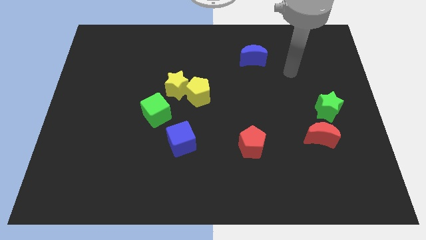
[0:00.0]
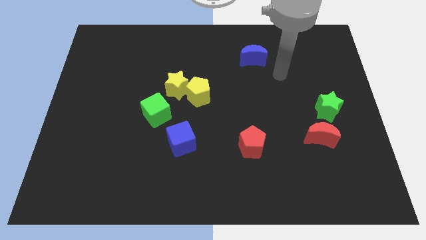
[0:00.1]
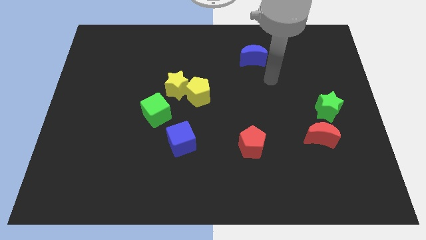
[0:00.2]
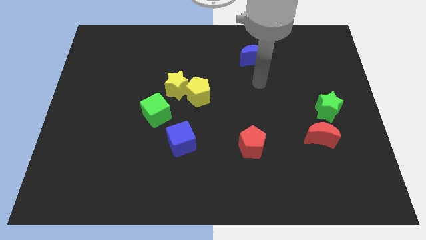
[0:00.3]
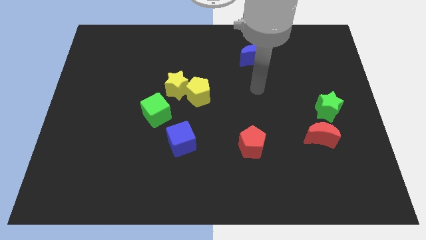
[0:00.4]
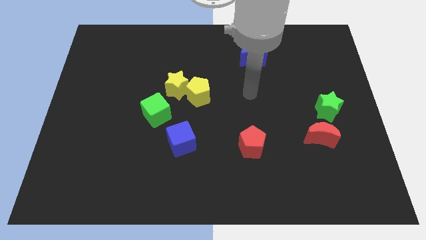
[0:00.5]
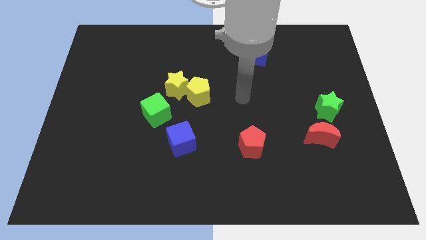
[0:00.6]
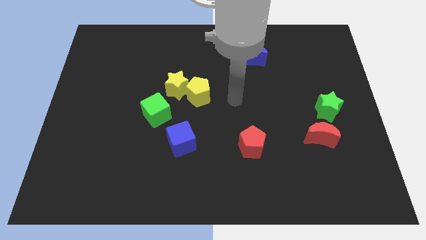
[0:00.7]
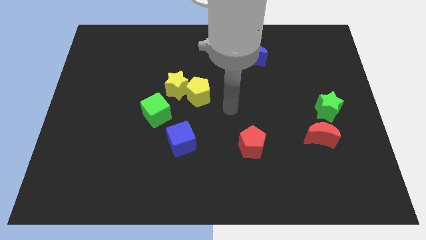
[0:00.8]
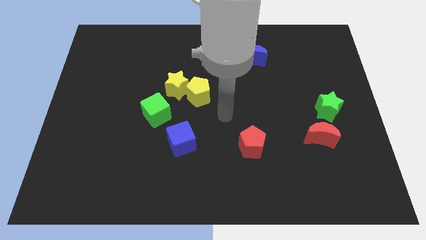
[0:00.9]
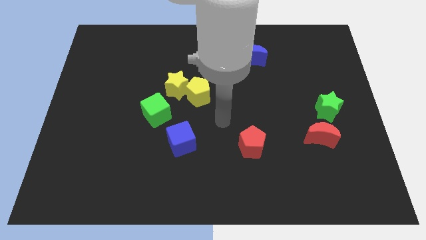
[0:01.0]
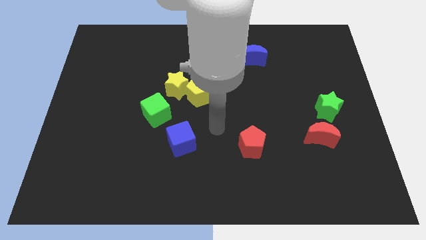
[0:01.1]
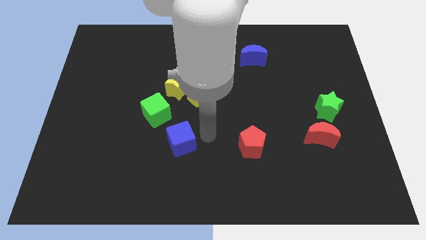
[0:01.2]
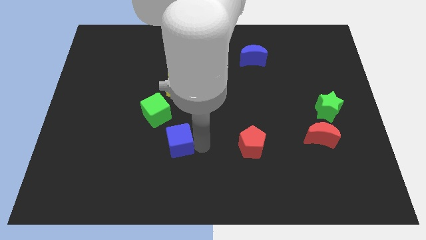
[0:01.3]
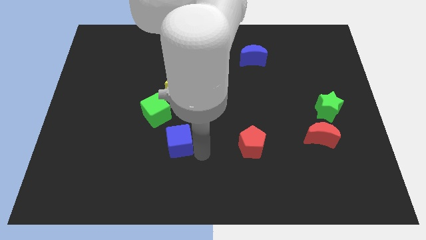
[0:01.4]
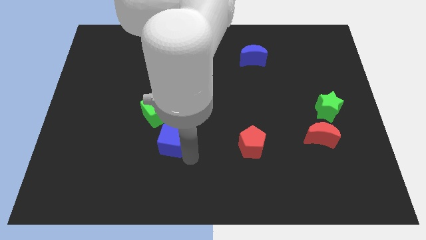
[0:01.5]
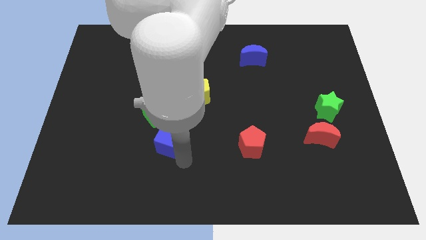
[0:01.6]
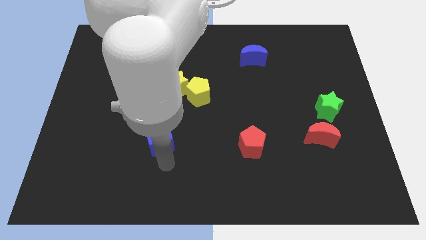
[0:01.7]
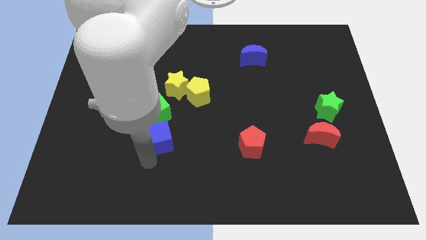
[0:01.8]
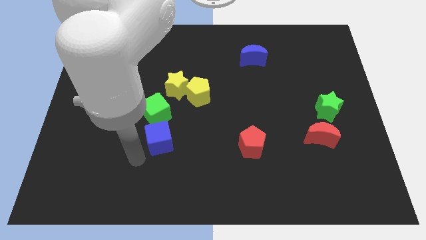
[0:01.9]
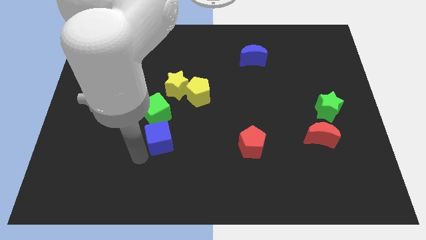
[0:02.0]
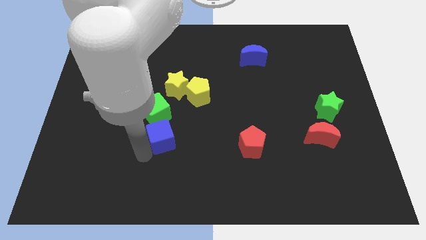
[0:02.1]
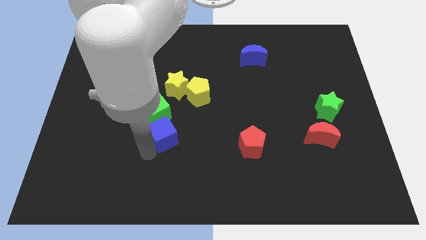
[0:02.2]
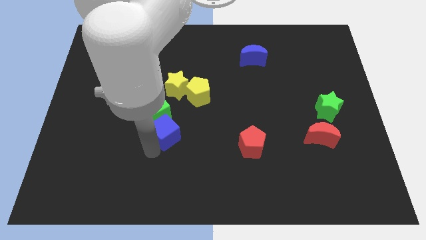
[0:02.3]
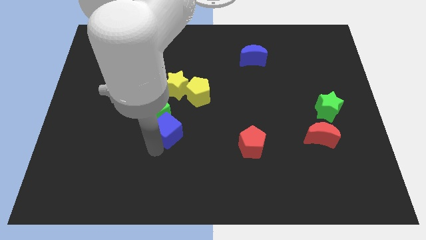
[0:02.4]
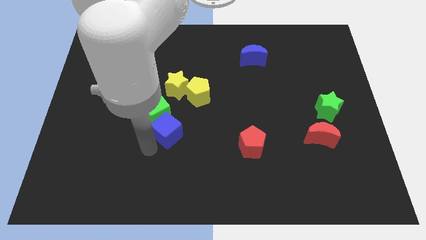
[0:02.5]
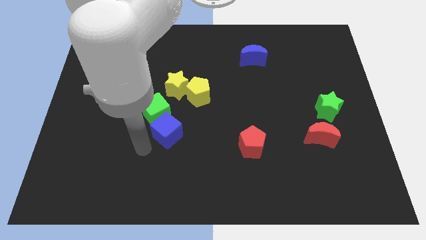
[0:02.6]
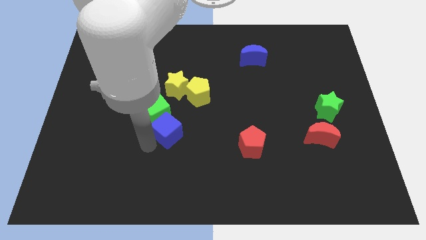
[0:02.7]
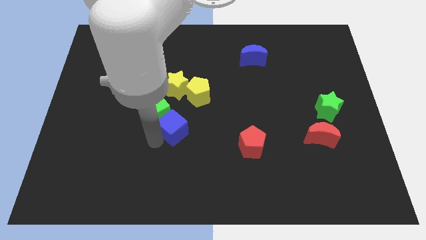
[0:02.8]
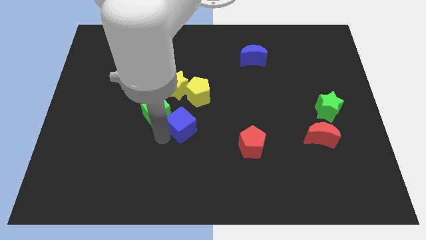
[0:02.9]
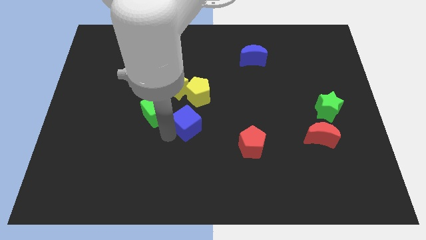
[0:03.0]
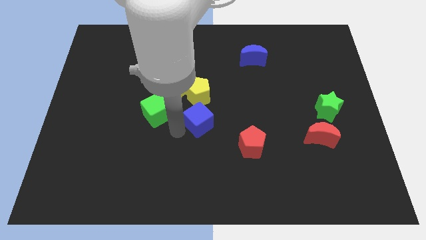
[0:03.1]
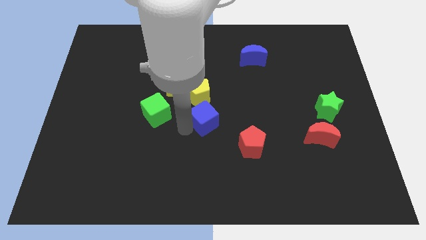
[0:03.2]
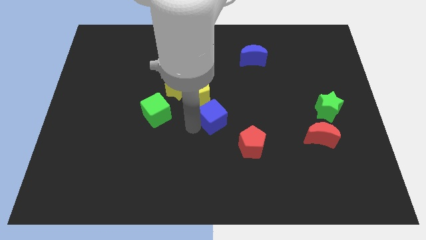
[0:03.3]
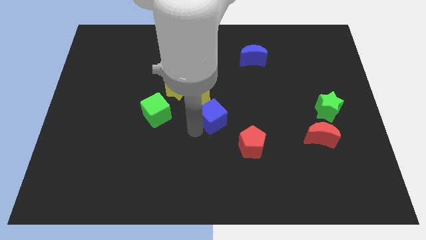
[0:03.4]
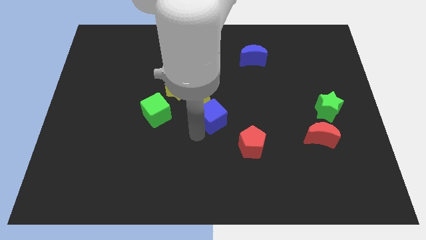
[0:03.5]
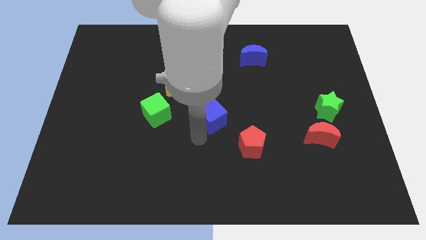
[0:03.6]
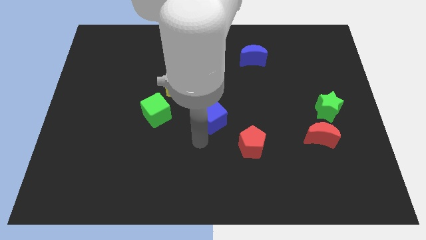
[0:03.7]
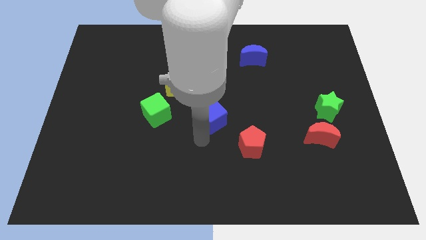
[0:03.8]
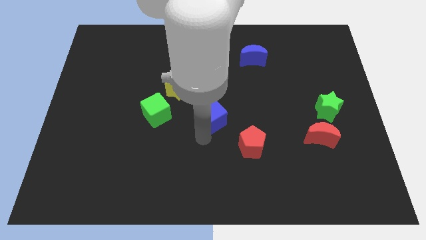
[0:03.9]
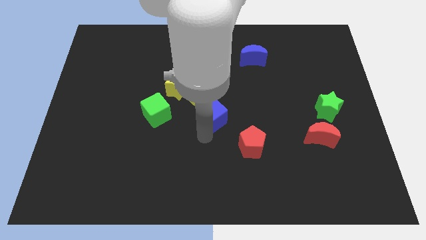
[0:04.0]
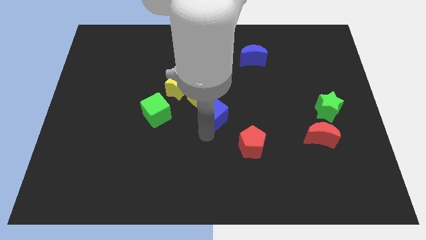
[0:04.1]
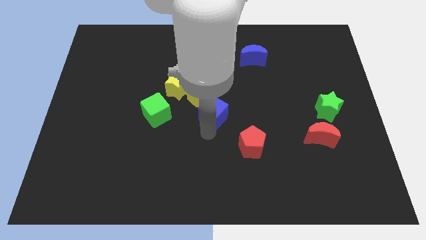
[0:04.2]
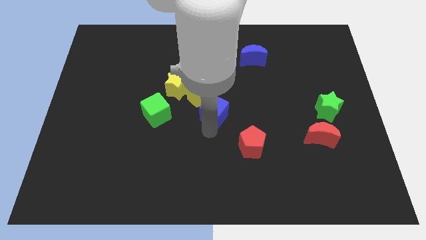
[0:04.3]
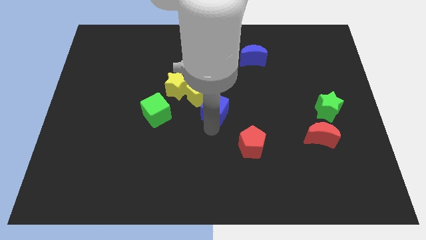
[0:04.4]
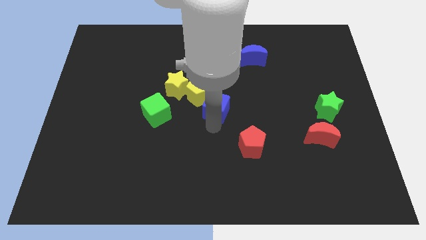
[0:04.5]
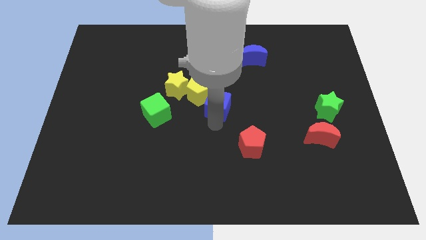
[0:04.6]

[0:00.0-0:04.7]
move the blue cube up a little

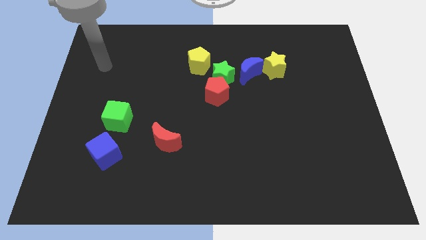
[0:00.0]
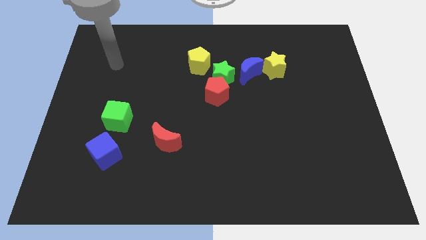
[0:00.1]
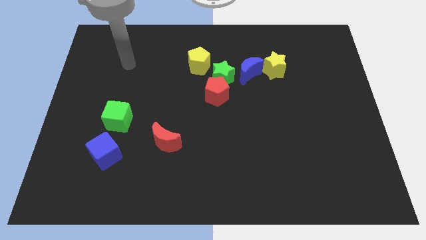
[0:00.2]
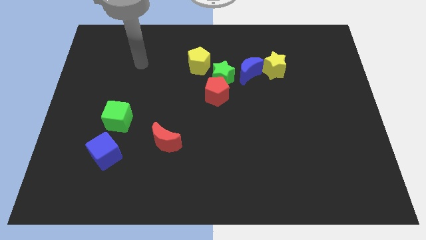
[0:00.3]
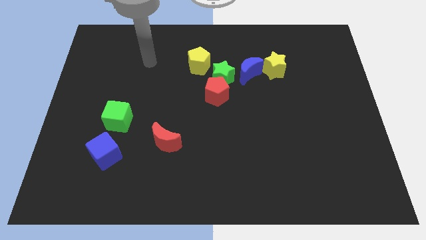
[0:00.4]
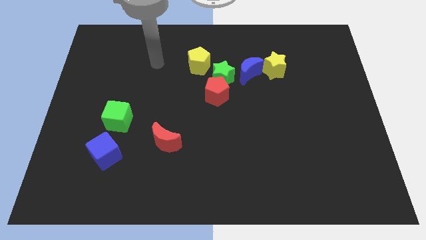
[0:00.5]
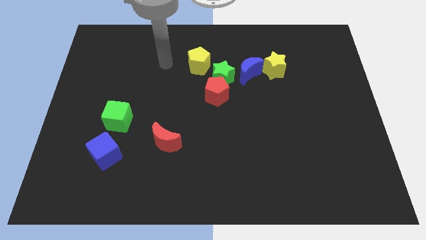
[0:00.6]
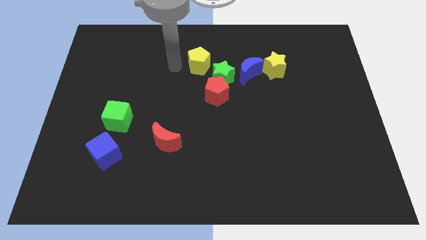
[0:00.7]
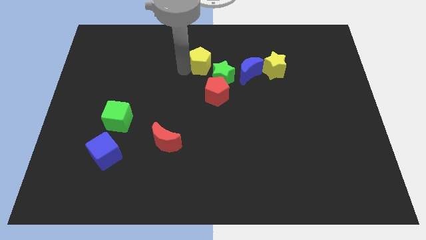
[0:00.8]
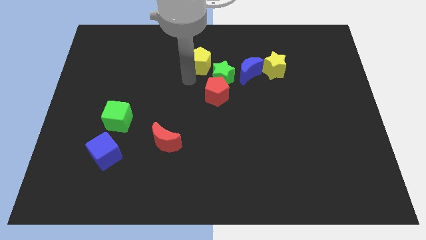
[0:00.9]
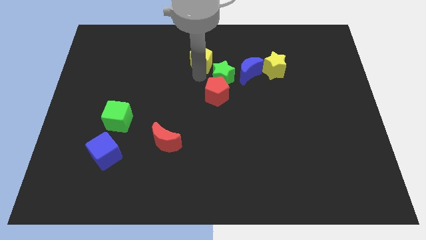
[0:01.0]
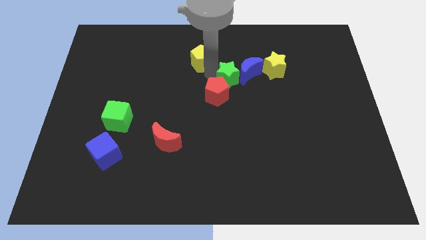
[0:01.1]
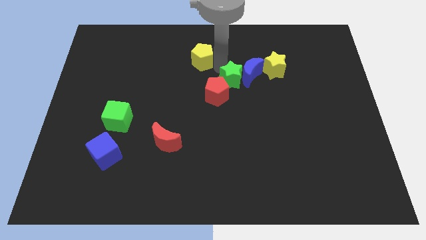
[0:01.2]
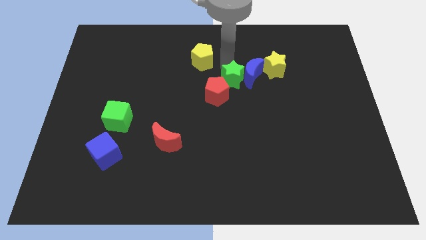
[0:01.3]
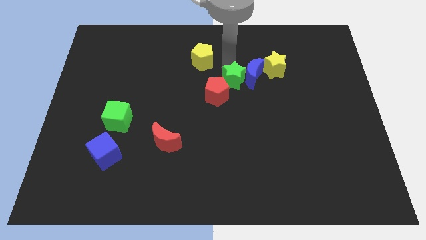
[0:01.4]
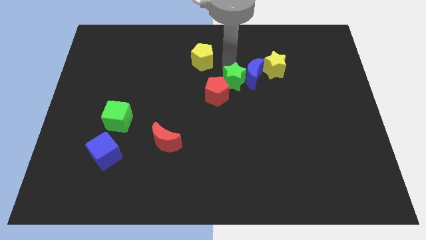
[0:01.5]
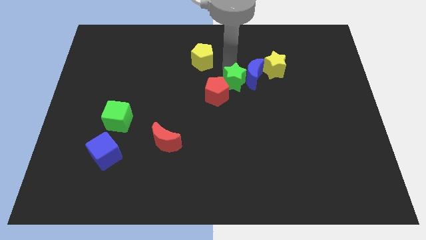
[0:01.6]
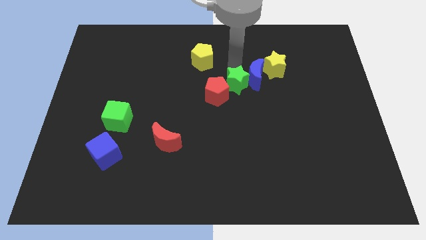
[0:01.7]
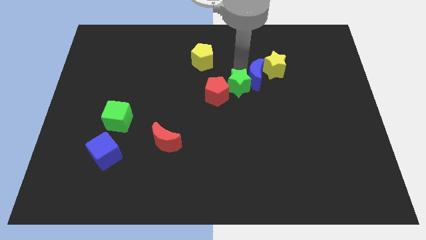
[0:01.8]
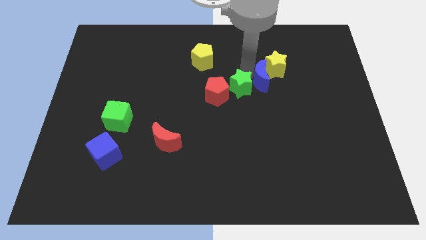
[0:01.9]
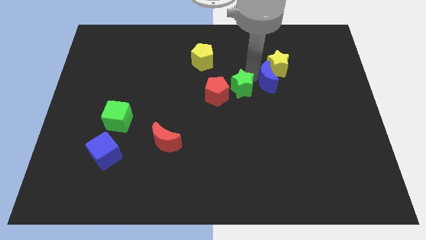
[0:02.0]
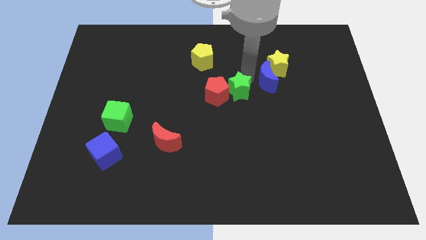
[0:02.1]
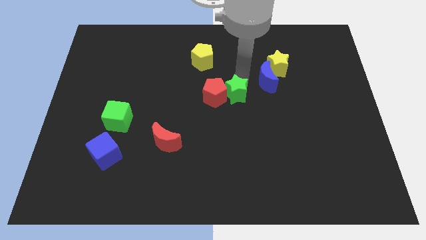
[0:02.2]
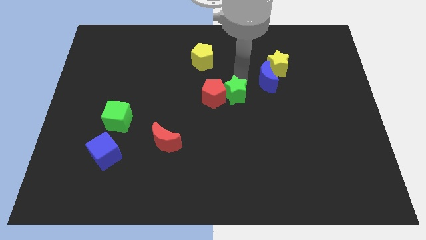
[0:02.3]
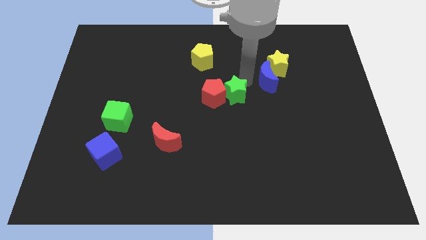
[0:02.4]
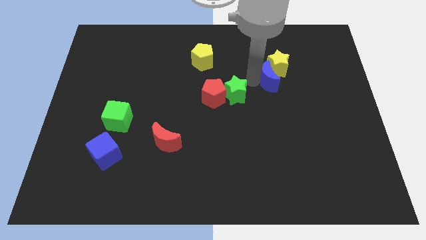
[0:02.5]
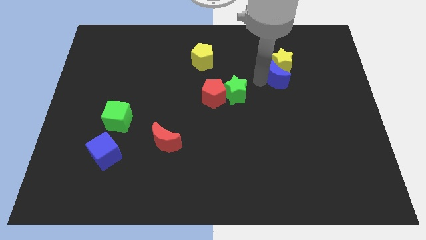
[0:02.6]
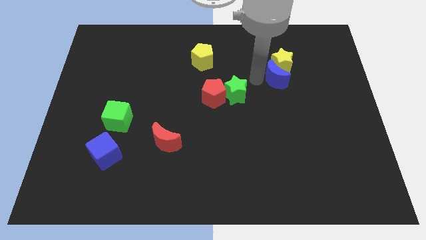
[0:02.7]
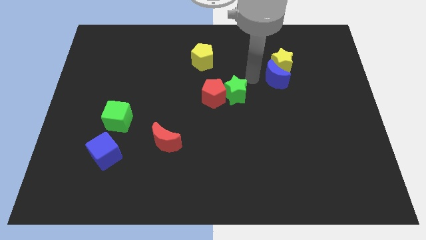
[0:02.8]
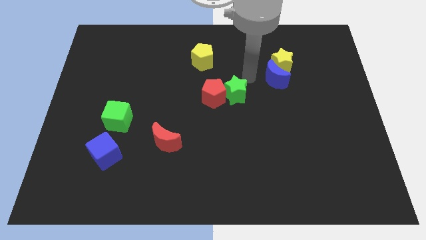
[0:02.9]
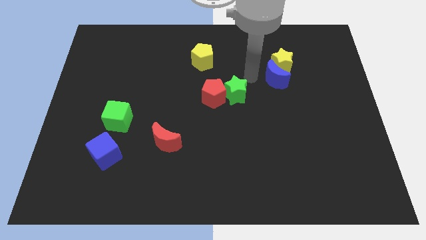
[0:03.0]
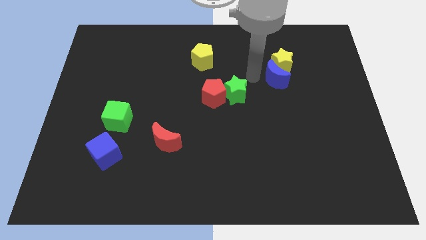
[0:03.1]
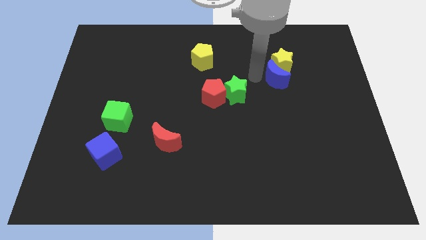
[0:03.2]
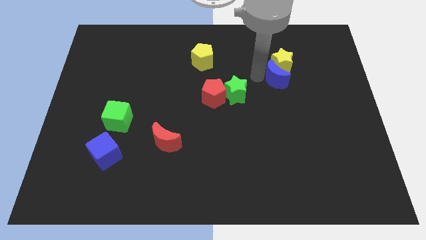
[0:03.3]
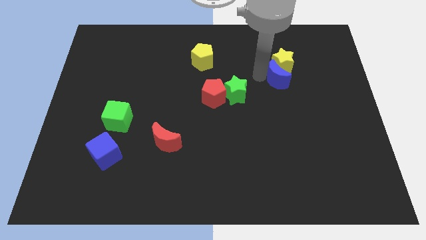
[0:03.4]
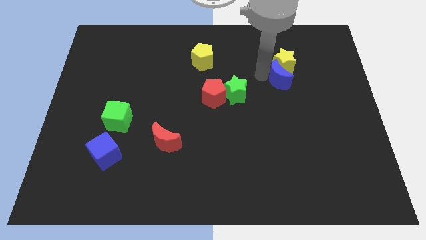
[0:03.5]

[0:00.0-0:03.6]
slide the blue moon a little to the right
